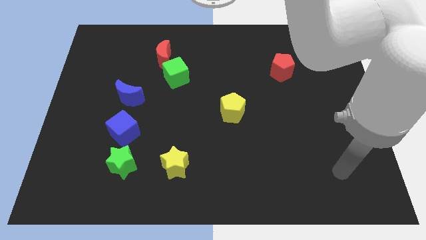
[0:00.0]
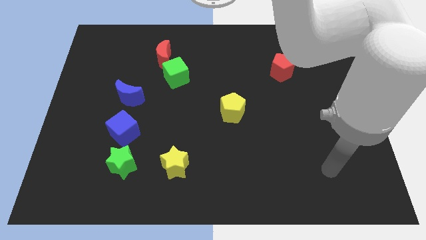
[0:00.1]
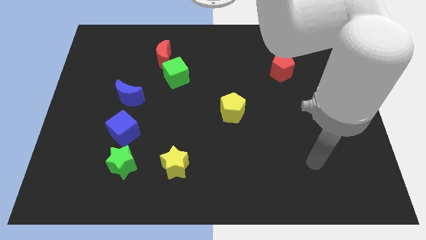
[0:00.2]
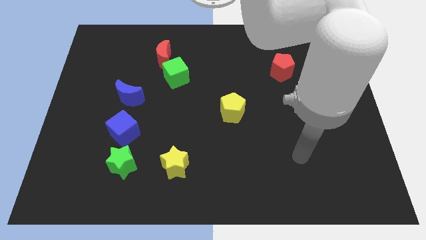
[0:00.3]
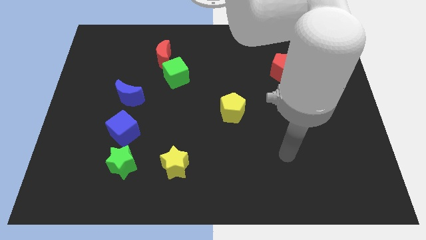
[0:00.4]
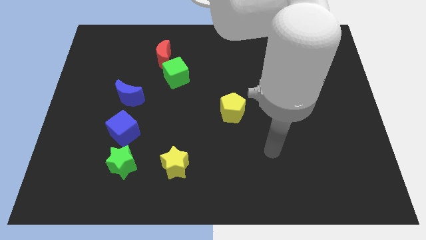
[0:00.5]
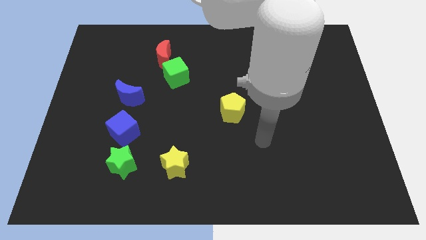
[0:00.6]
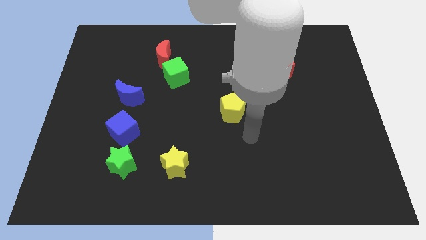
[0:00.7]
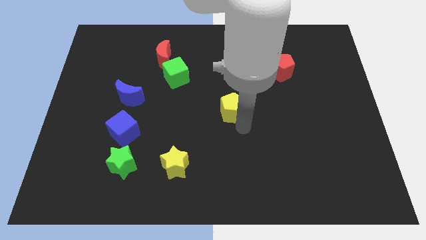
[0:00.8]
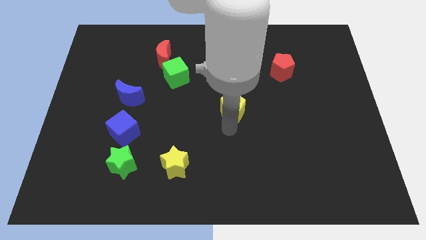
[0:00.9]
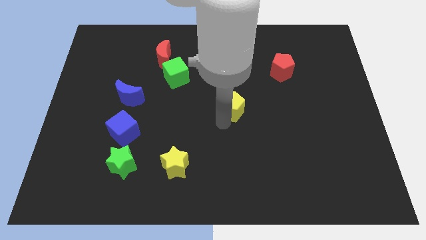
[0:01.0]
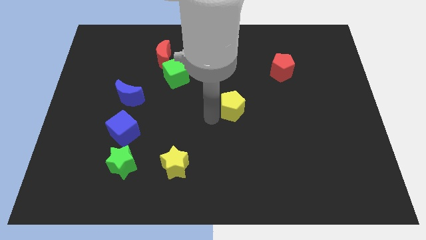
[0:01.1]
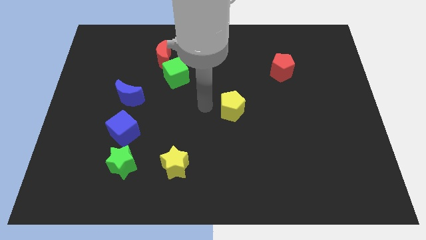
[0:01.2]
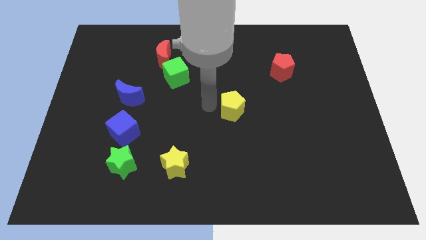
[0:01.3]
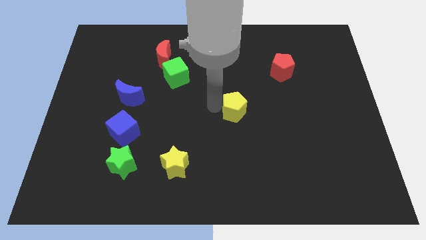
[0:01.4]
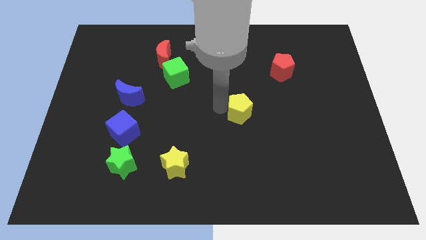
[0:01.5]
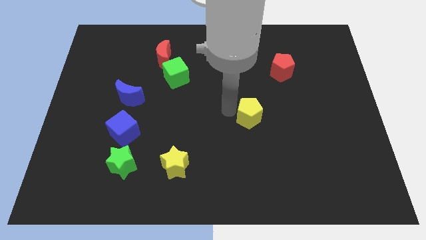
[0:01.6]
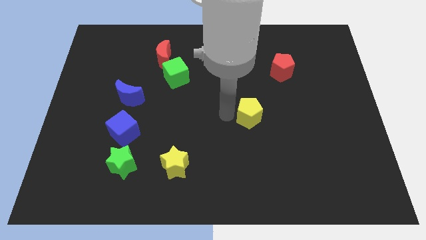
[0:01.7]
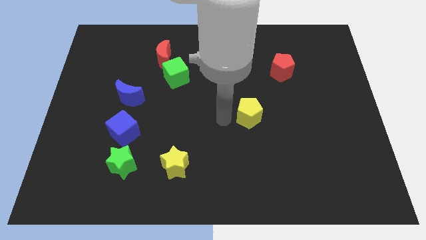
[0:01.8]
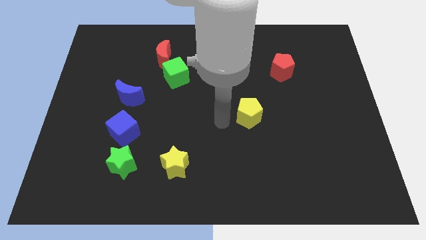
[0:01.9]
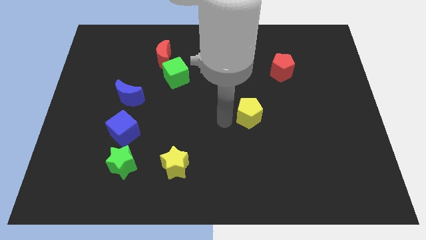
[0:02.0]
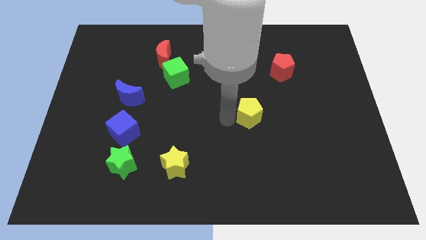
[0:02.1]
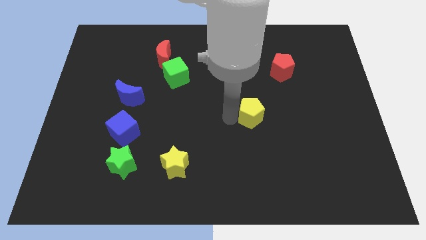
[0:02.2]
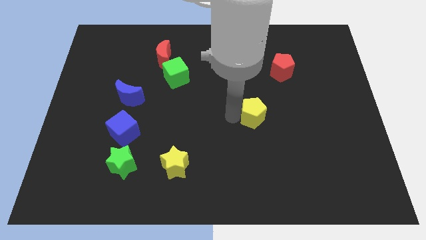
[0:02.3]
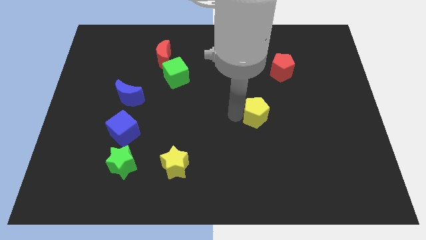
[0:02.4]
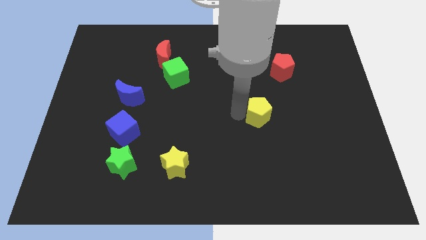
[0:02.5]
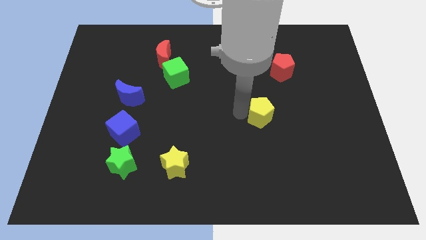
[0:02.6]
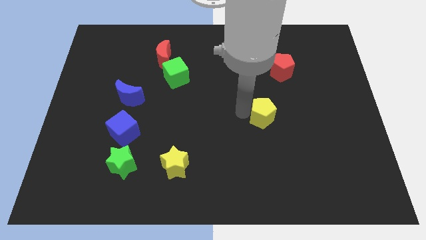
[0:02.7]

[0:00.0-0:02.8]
slightly move the yellow pentagon to the right

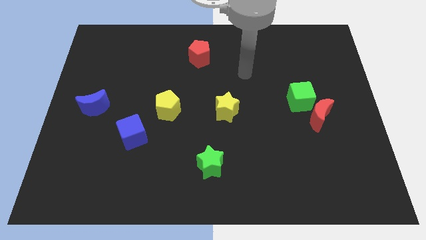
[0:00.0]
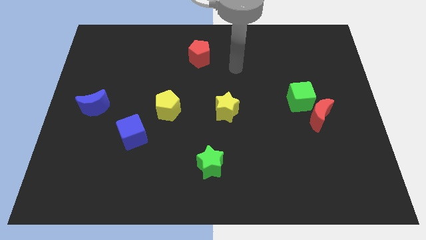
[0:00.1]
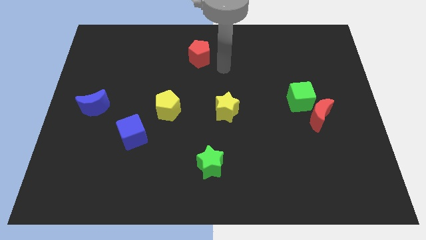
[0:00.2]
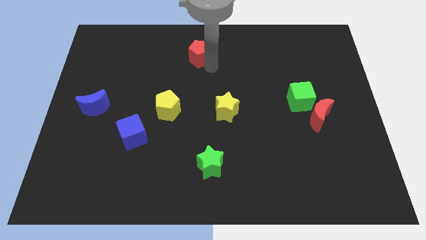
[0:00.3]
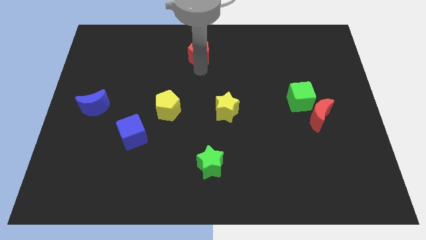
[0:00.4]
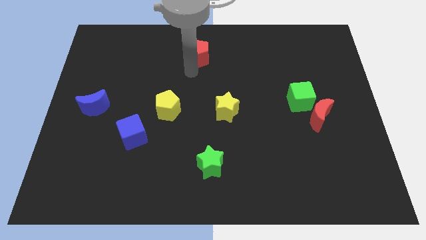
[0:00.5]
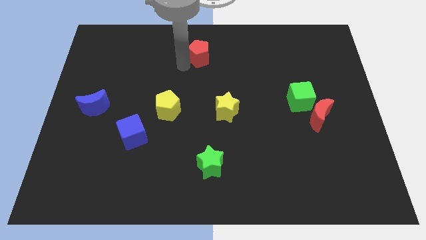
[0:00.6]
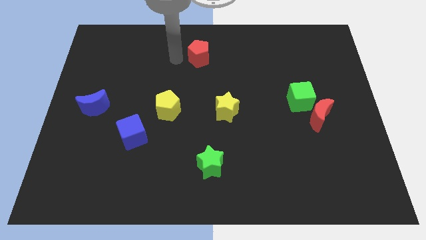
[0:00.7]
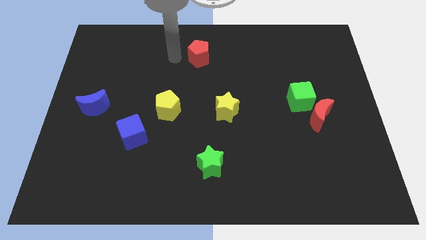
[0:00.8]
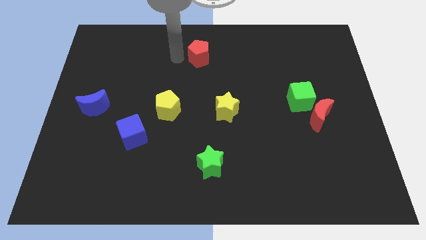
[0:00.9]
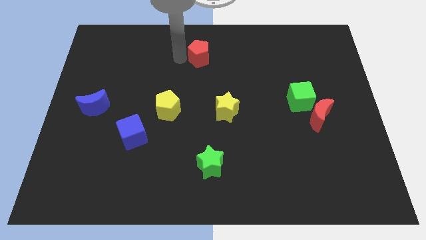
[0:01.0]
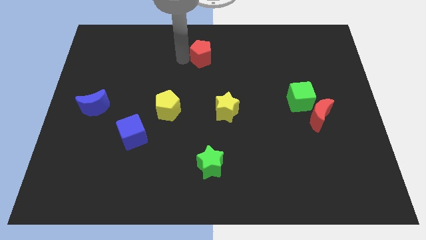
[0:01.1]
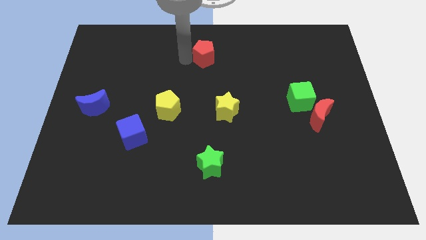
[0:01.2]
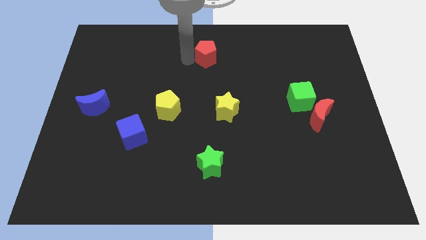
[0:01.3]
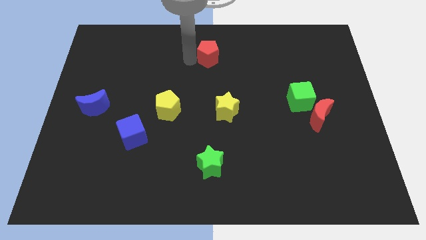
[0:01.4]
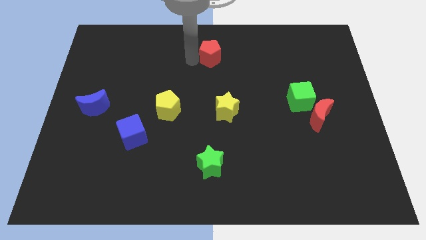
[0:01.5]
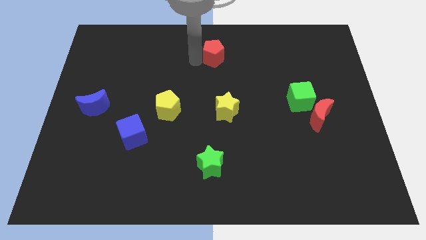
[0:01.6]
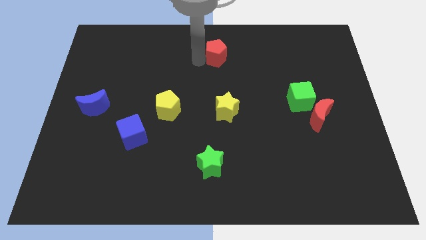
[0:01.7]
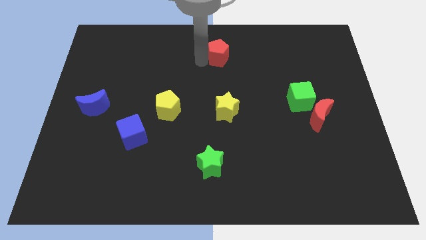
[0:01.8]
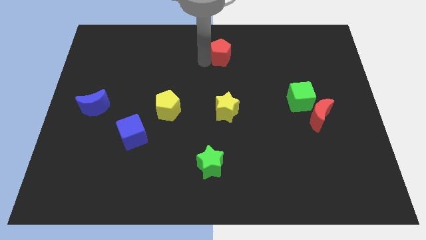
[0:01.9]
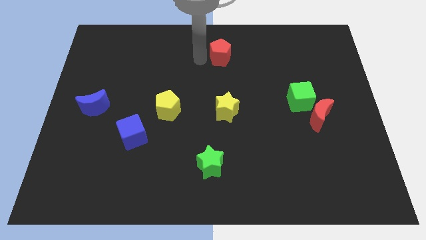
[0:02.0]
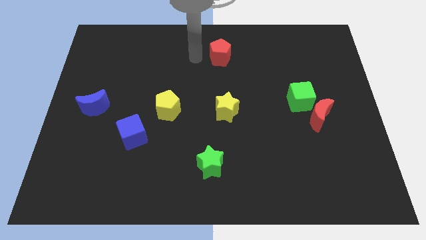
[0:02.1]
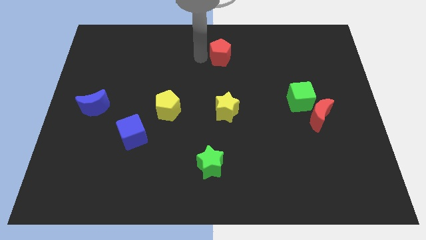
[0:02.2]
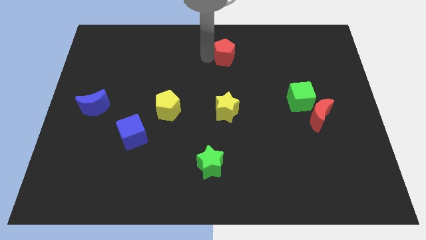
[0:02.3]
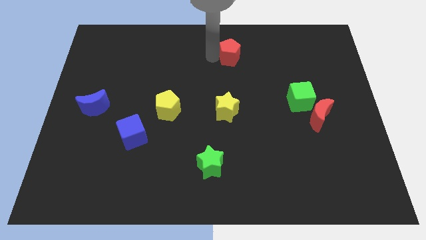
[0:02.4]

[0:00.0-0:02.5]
slightly push the red pentagon to the right

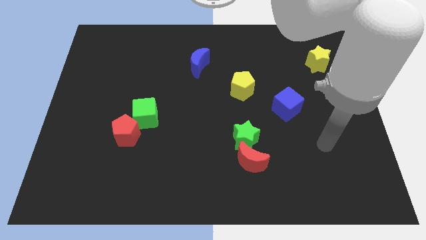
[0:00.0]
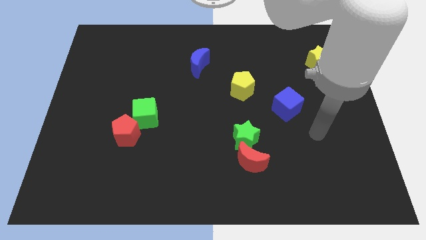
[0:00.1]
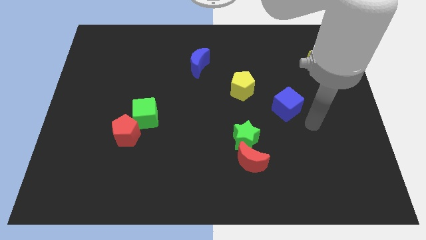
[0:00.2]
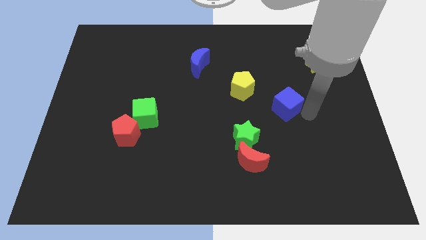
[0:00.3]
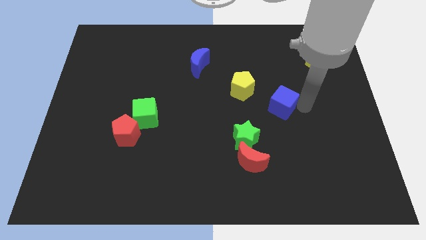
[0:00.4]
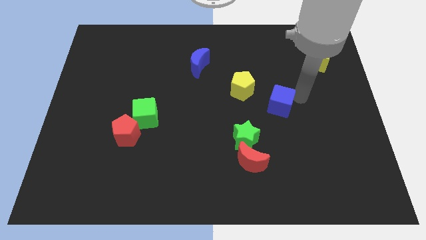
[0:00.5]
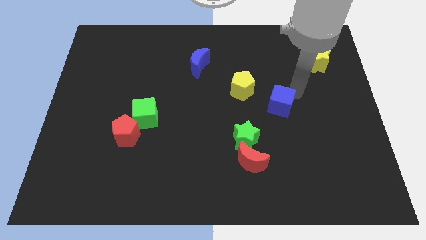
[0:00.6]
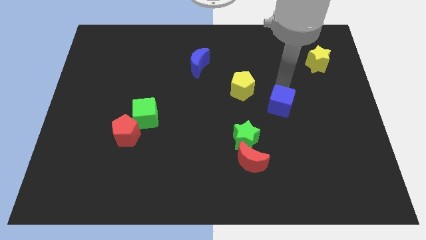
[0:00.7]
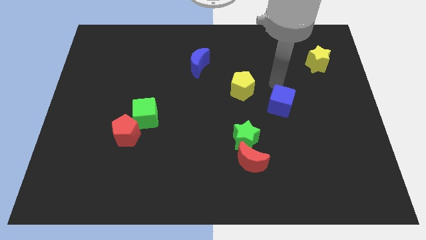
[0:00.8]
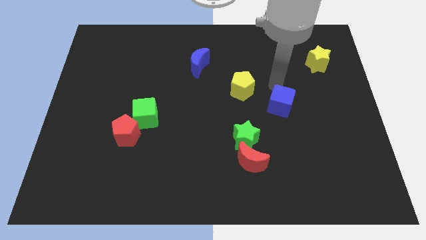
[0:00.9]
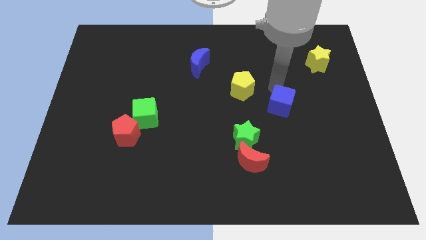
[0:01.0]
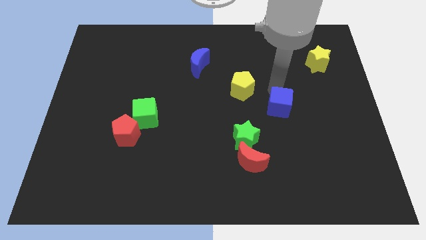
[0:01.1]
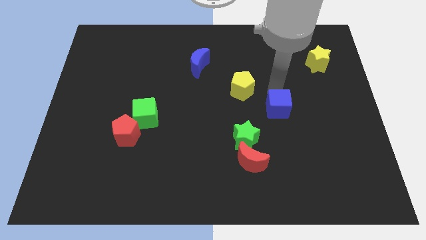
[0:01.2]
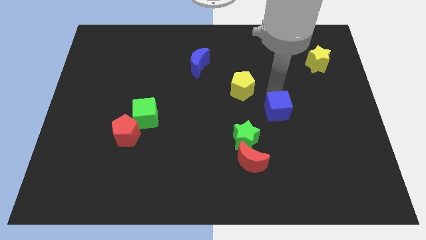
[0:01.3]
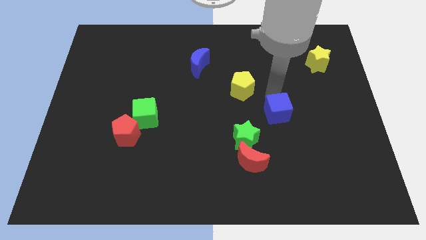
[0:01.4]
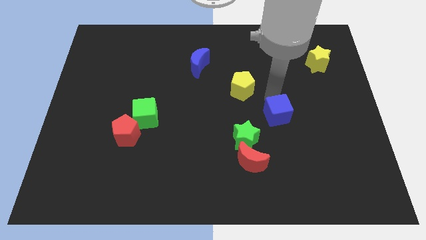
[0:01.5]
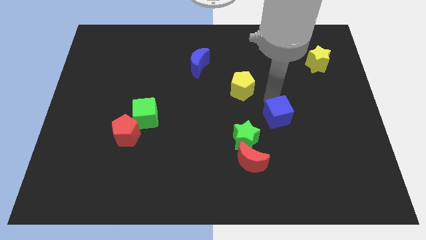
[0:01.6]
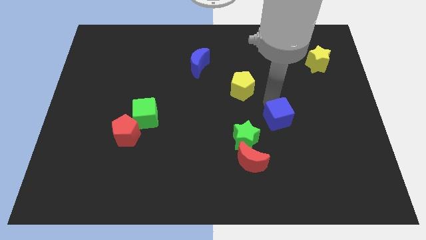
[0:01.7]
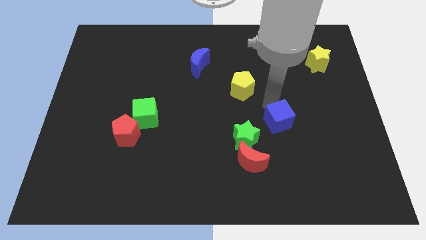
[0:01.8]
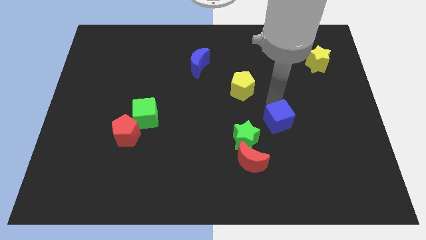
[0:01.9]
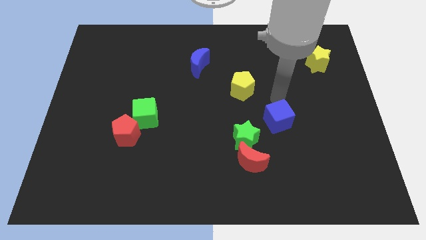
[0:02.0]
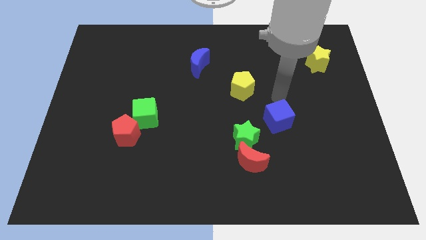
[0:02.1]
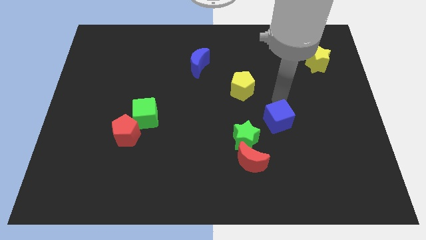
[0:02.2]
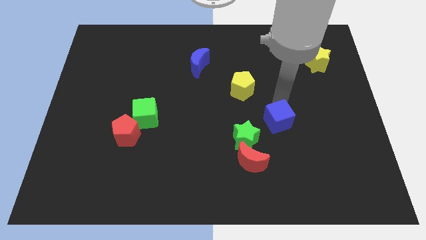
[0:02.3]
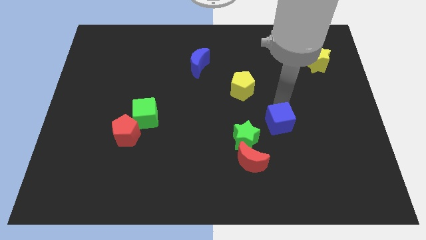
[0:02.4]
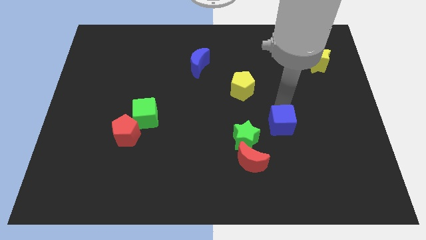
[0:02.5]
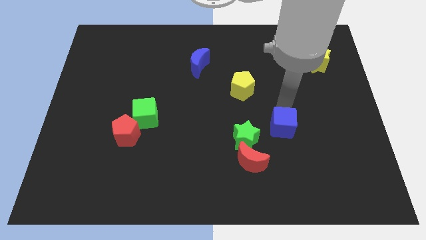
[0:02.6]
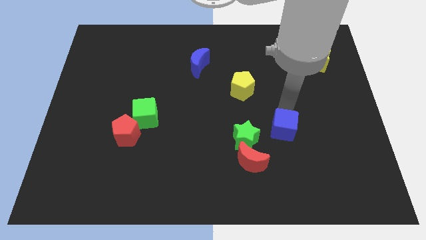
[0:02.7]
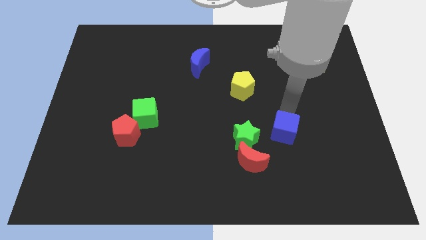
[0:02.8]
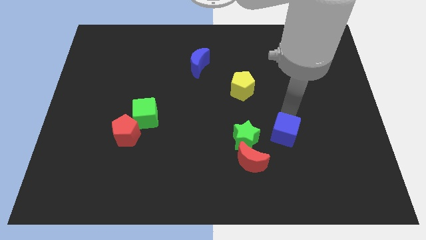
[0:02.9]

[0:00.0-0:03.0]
push the blue cube a little bit down
